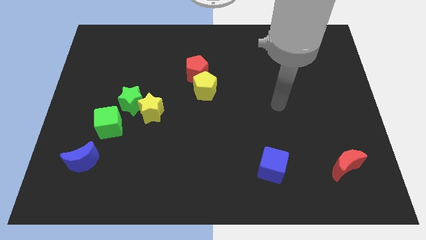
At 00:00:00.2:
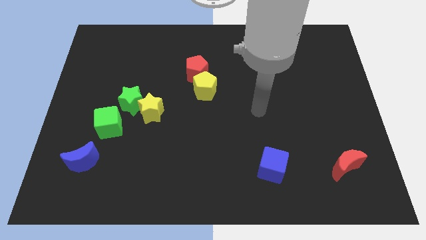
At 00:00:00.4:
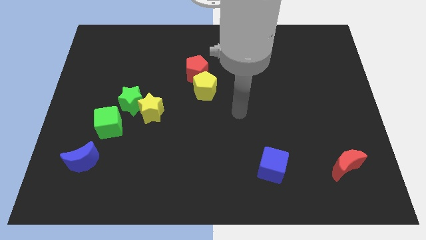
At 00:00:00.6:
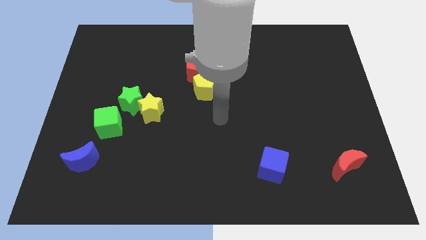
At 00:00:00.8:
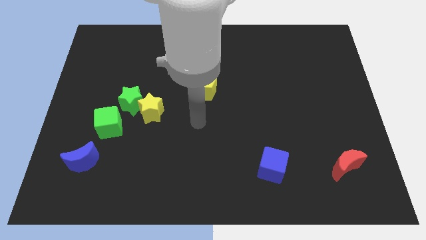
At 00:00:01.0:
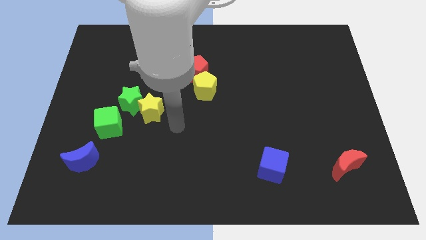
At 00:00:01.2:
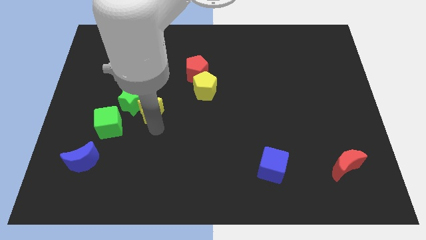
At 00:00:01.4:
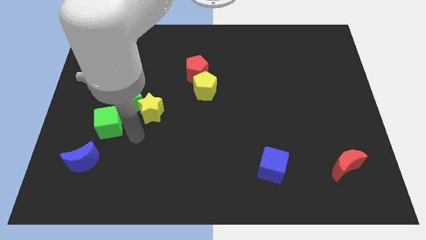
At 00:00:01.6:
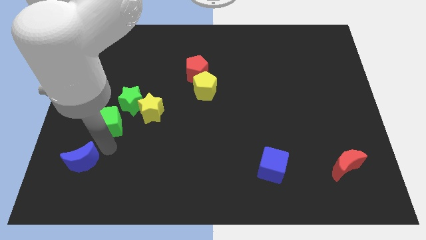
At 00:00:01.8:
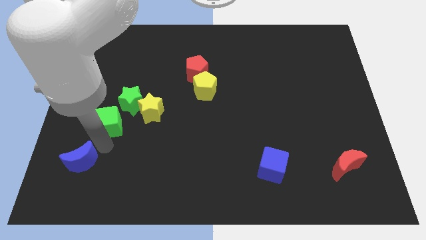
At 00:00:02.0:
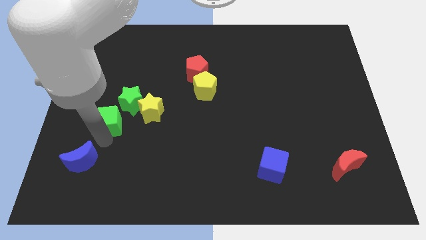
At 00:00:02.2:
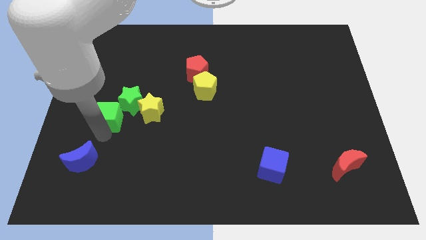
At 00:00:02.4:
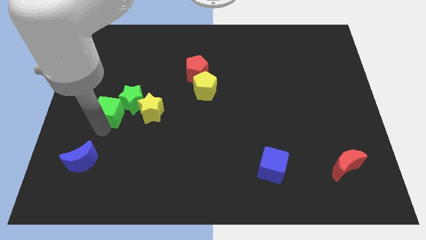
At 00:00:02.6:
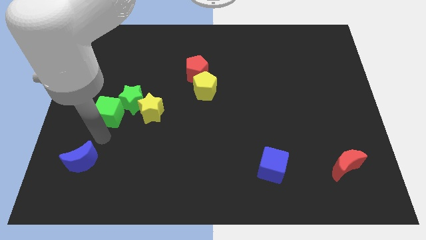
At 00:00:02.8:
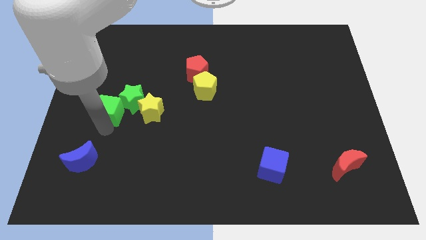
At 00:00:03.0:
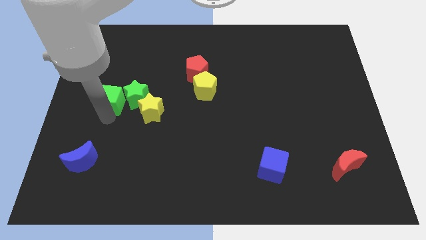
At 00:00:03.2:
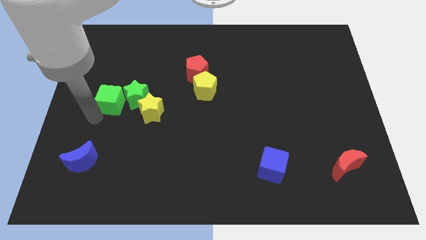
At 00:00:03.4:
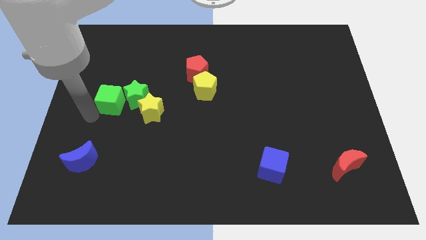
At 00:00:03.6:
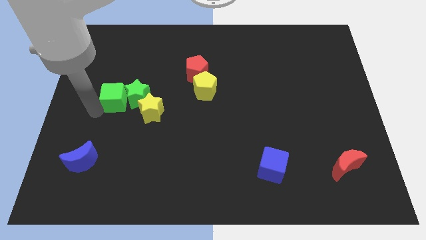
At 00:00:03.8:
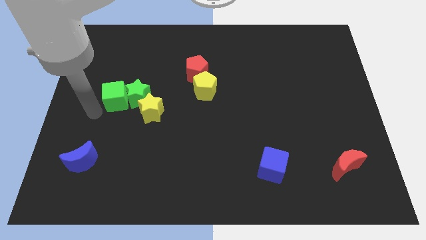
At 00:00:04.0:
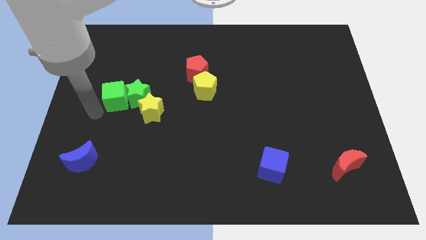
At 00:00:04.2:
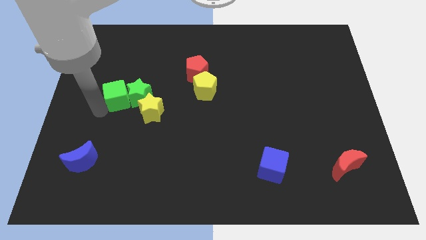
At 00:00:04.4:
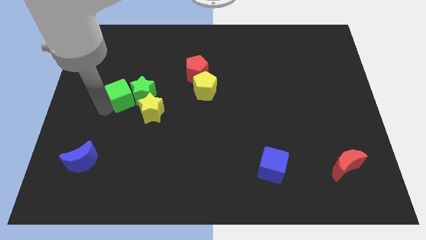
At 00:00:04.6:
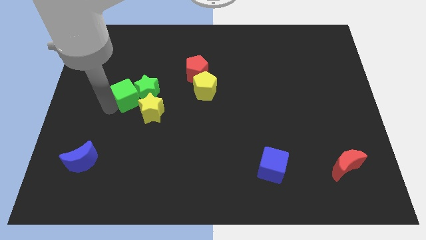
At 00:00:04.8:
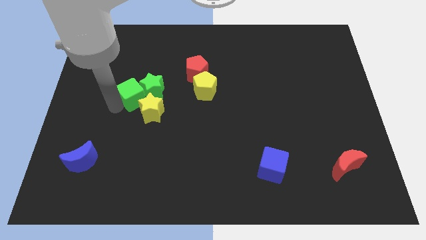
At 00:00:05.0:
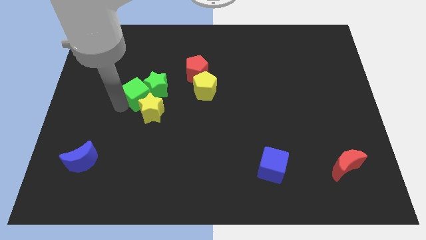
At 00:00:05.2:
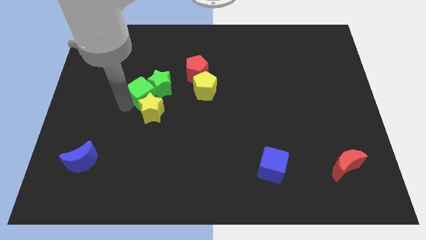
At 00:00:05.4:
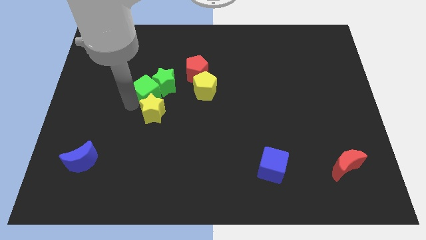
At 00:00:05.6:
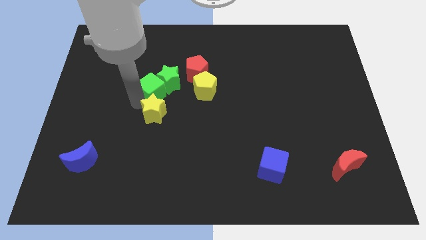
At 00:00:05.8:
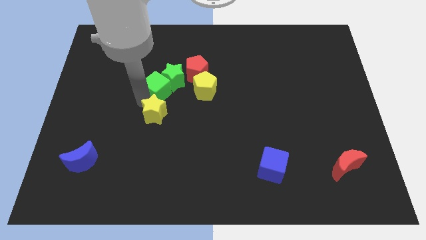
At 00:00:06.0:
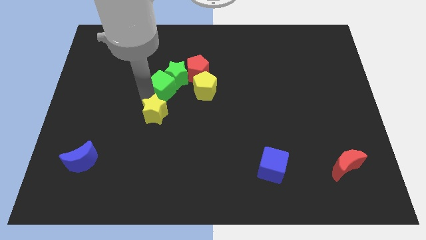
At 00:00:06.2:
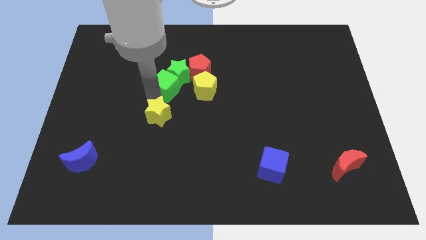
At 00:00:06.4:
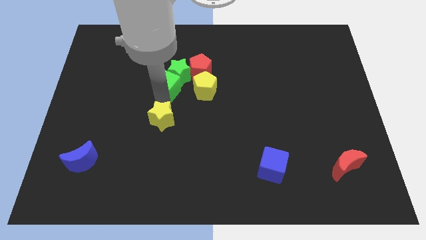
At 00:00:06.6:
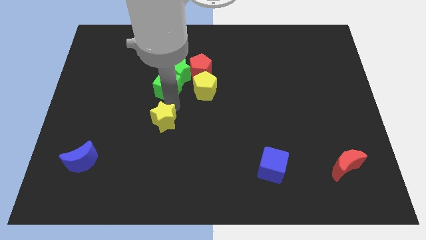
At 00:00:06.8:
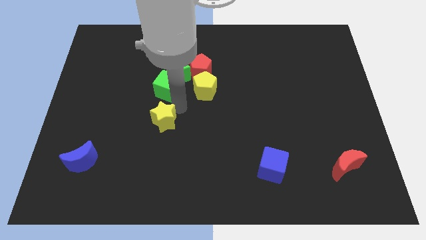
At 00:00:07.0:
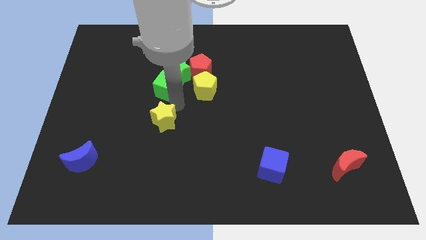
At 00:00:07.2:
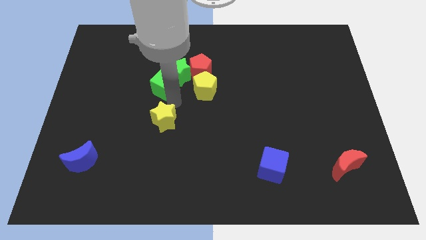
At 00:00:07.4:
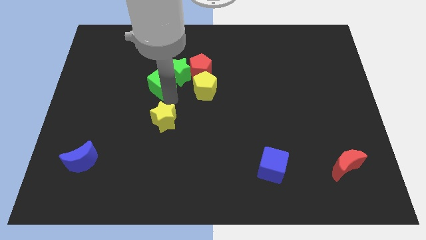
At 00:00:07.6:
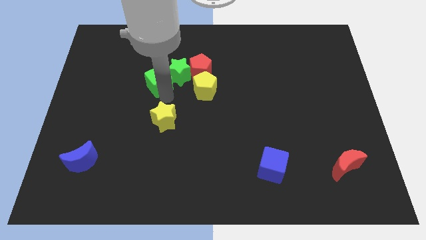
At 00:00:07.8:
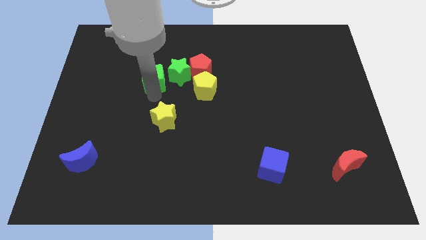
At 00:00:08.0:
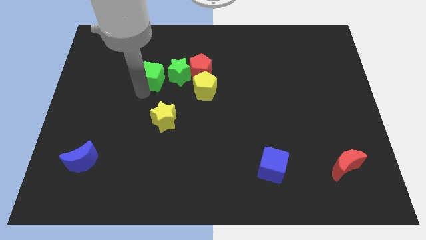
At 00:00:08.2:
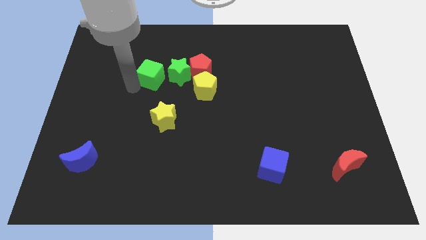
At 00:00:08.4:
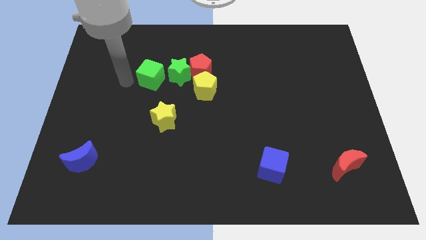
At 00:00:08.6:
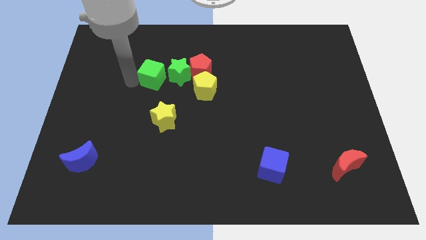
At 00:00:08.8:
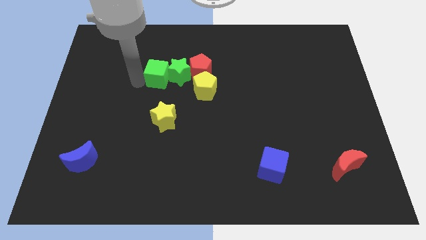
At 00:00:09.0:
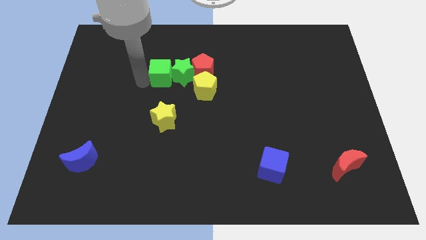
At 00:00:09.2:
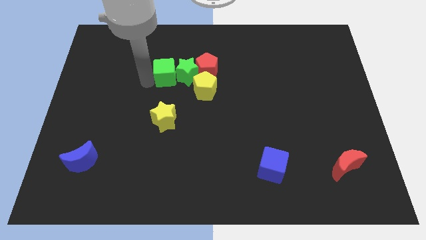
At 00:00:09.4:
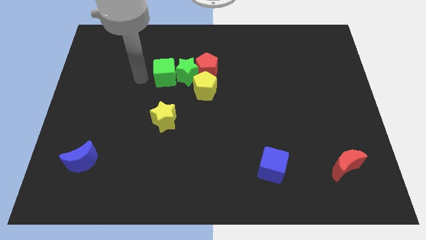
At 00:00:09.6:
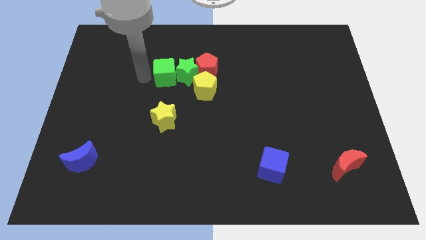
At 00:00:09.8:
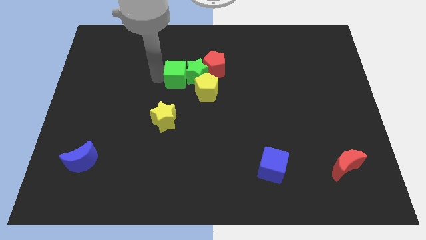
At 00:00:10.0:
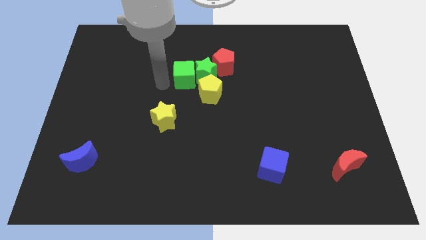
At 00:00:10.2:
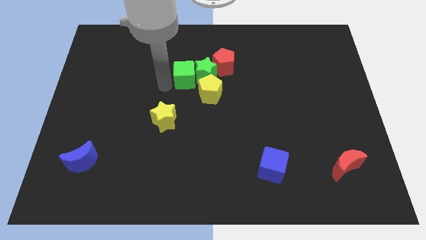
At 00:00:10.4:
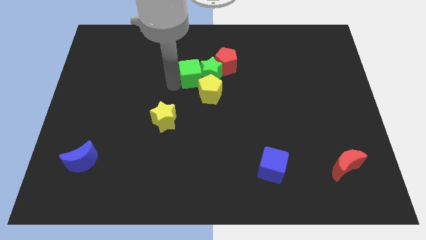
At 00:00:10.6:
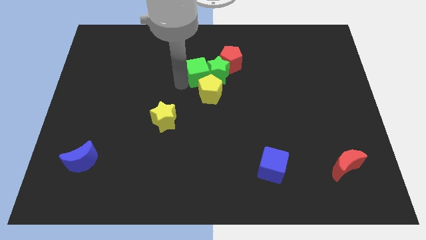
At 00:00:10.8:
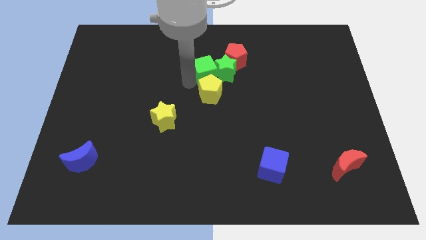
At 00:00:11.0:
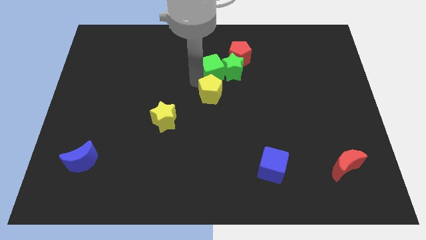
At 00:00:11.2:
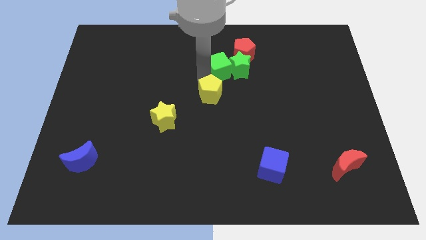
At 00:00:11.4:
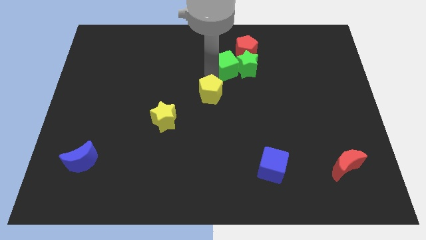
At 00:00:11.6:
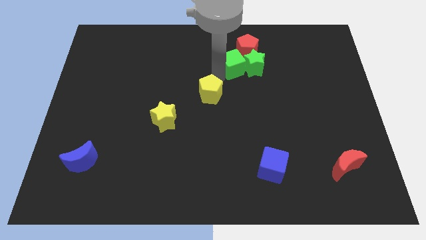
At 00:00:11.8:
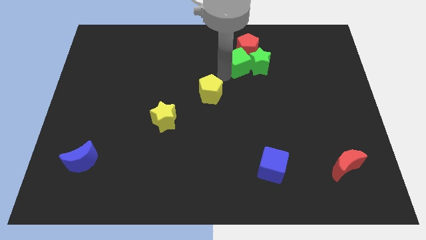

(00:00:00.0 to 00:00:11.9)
put the green cube next to the red pentagon
